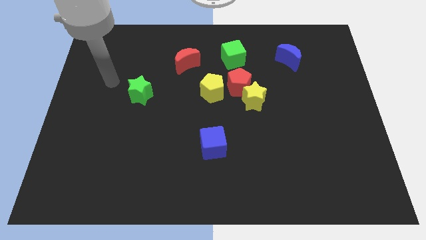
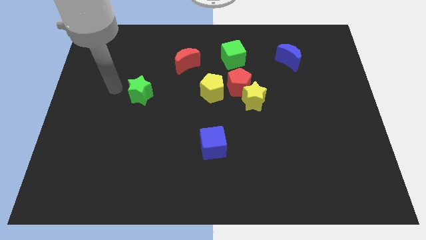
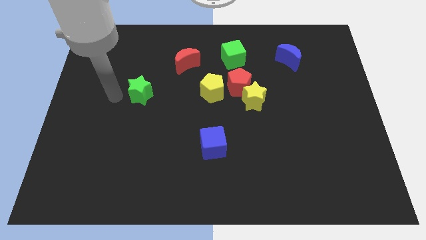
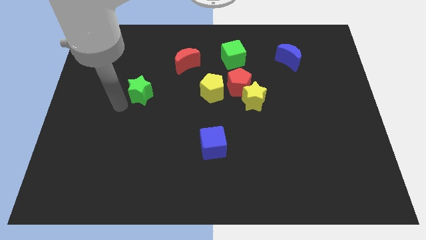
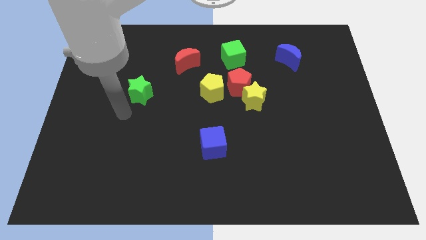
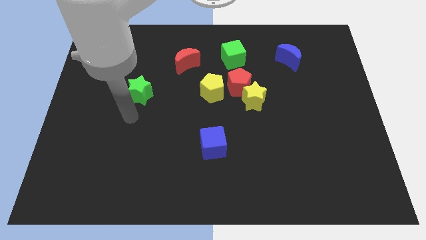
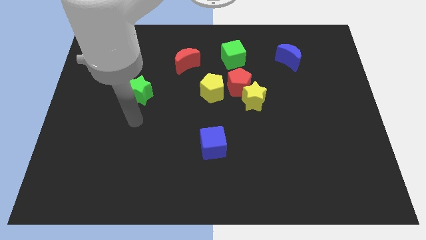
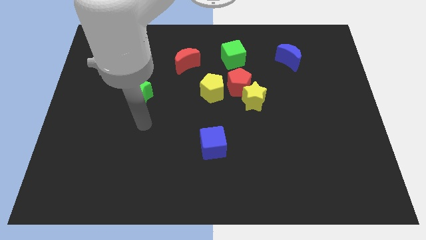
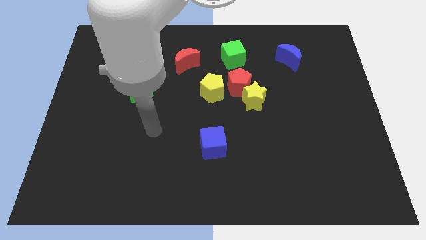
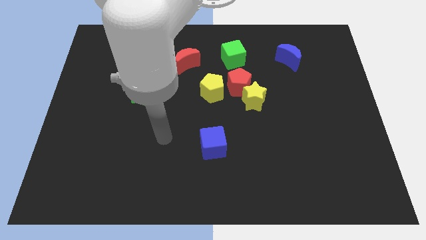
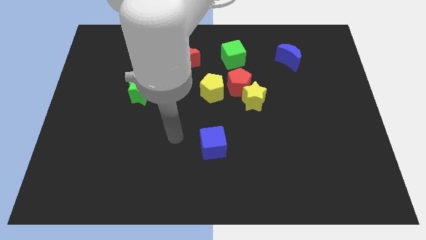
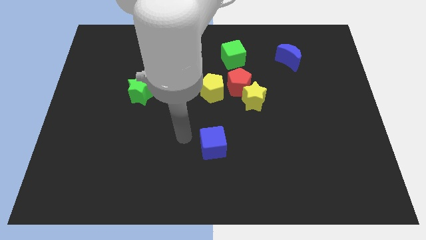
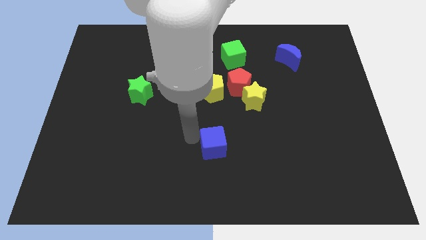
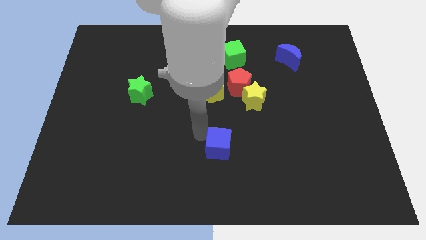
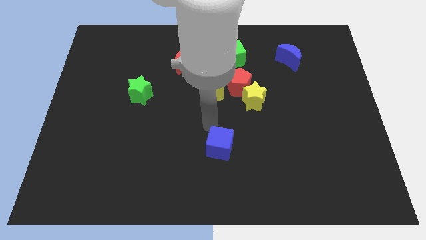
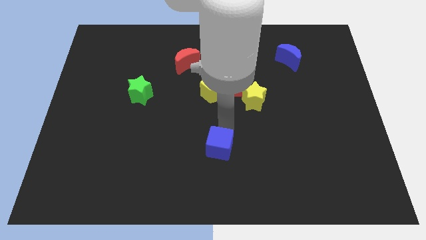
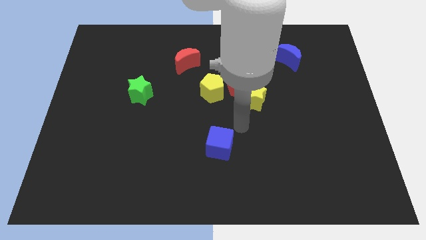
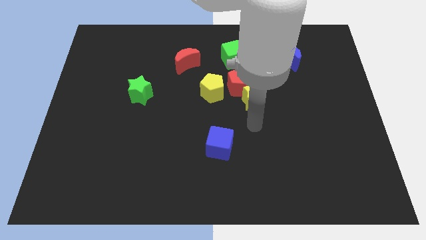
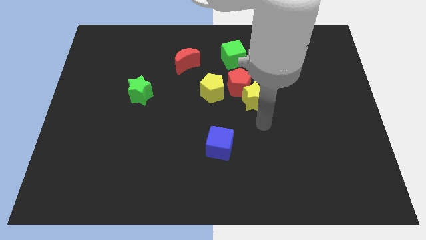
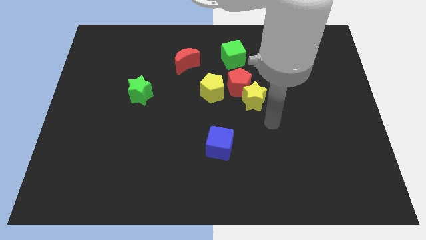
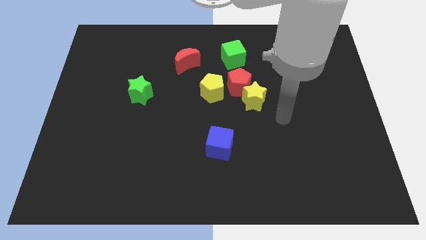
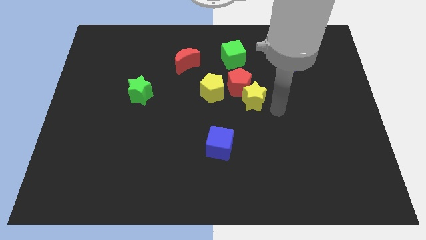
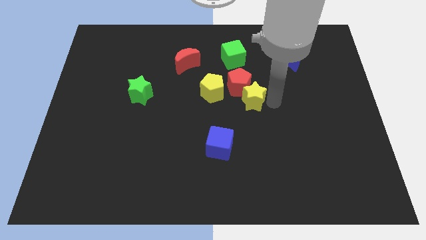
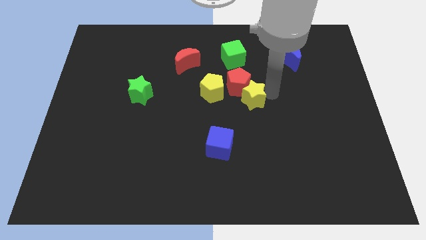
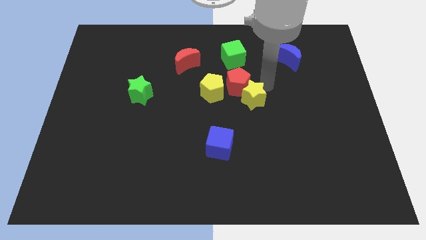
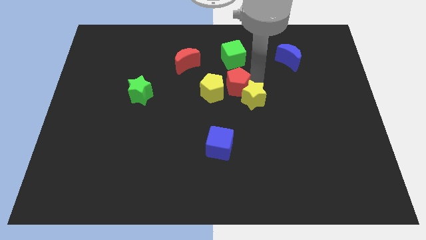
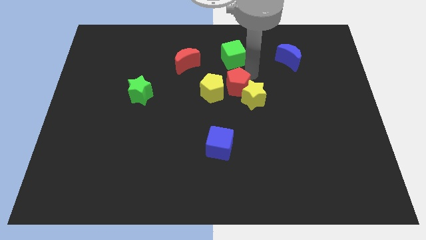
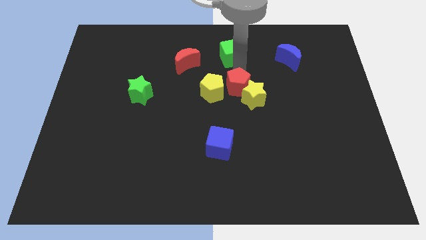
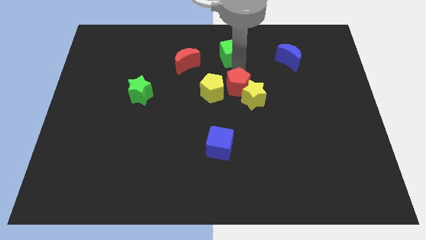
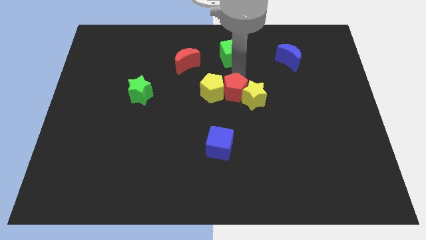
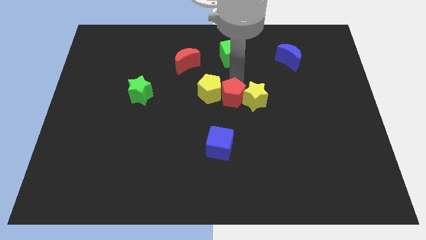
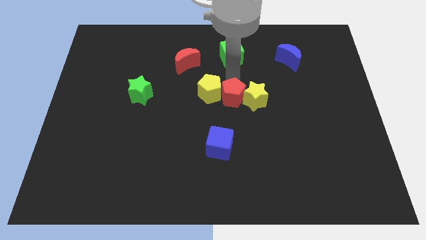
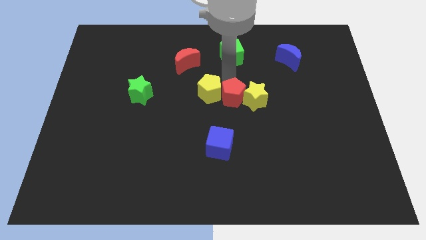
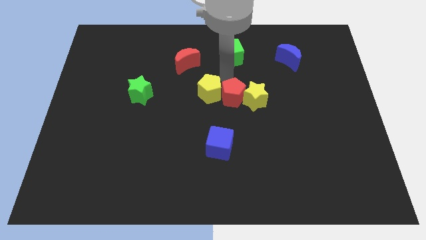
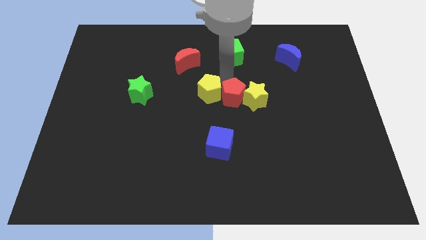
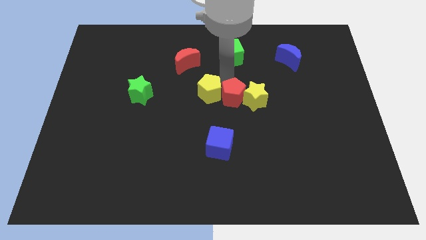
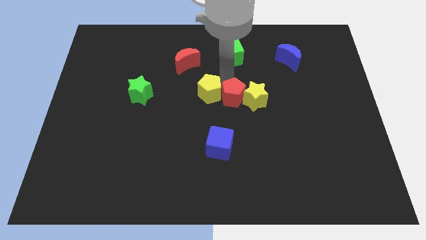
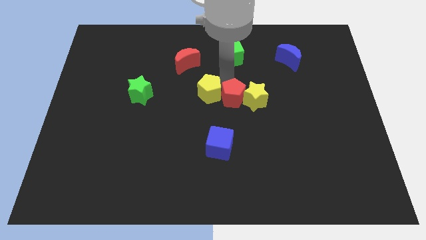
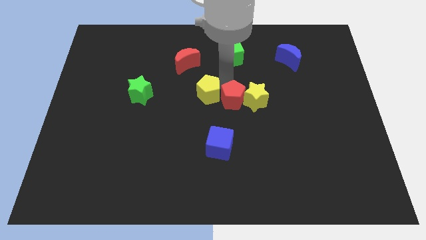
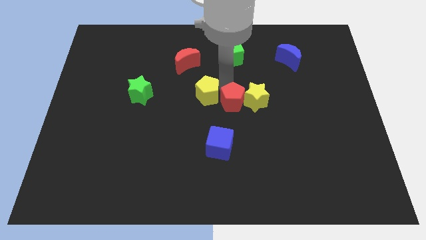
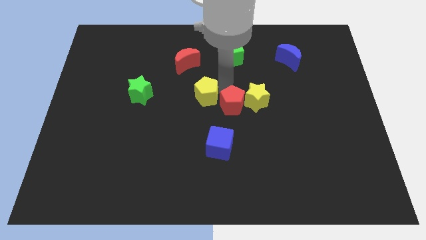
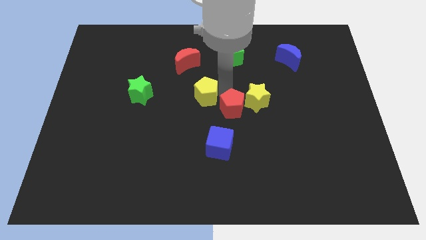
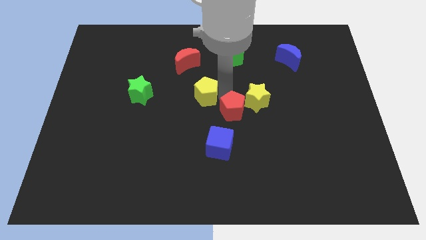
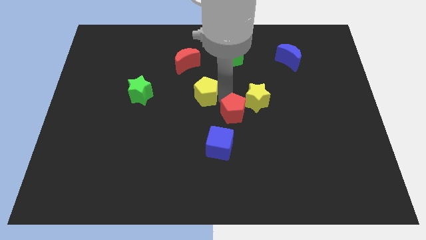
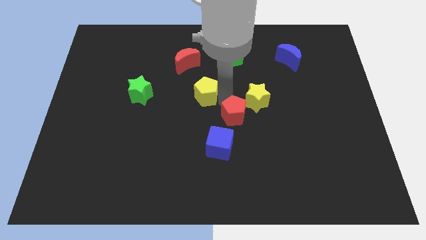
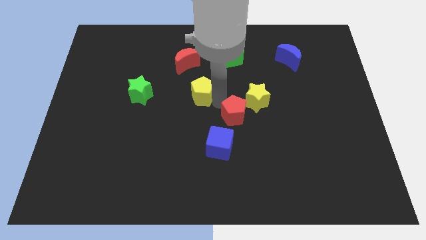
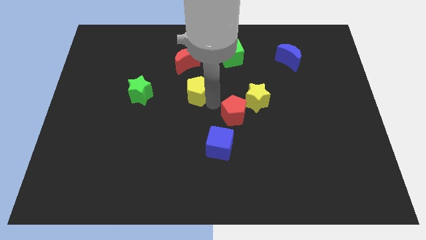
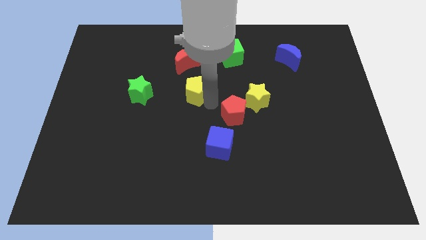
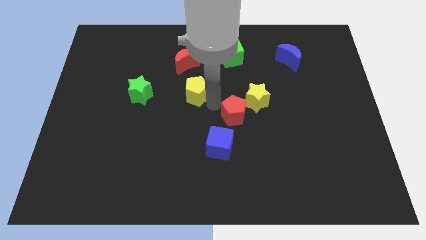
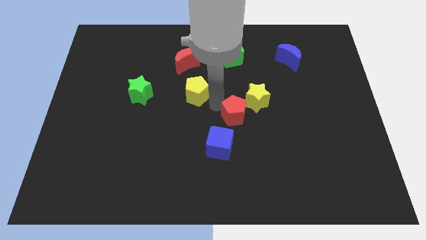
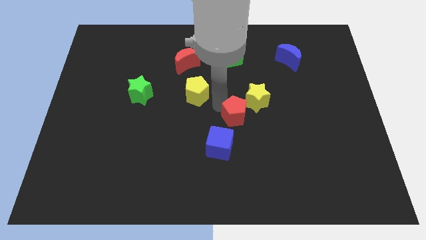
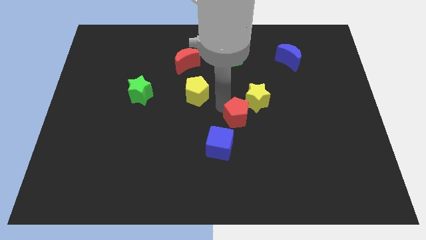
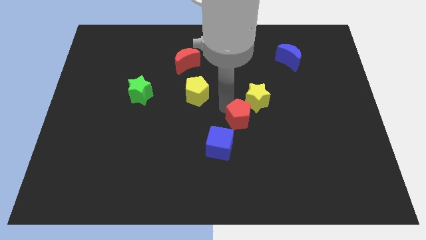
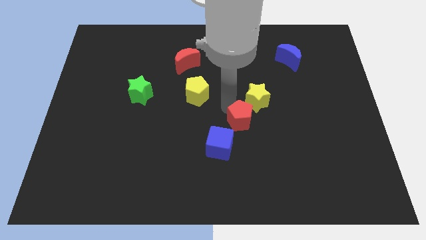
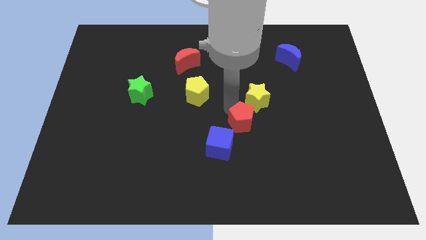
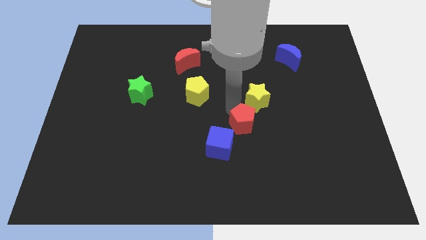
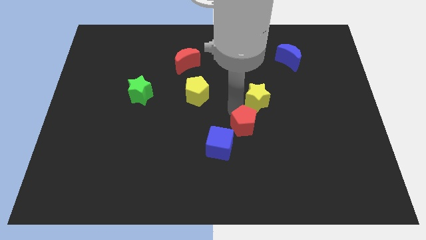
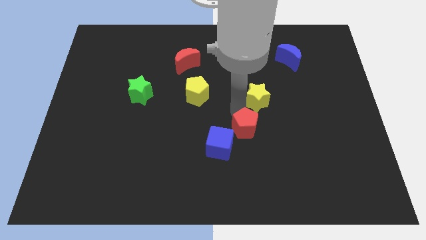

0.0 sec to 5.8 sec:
move the red pentagon to the right side of the blue cube

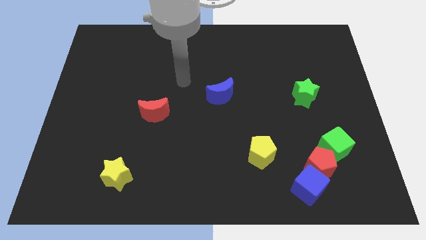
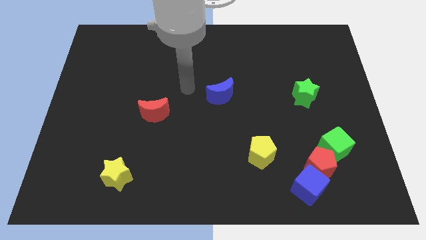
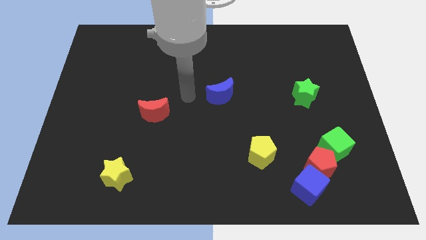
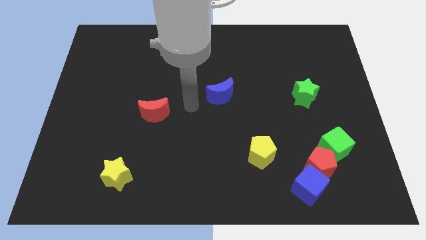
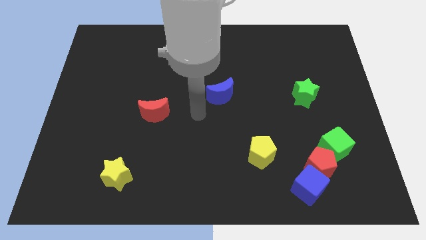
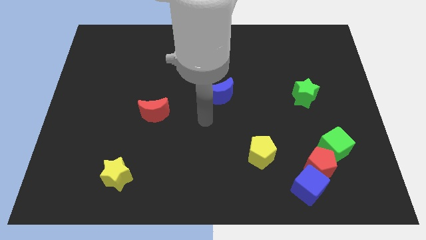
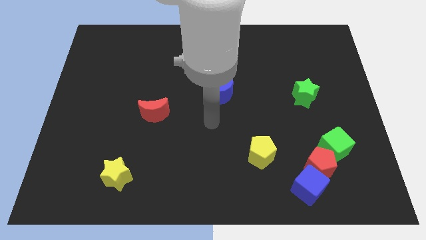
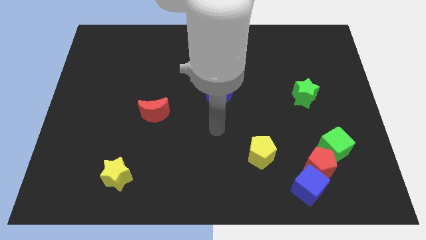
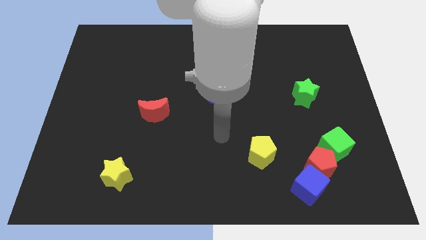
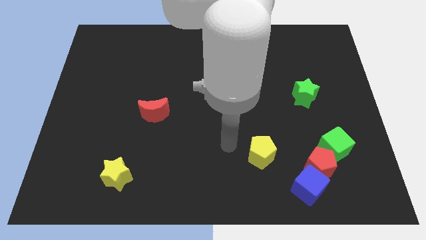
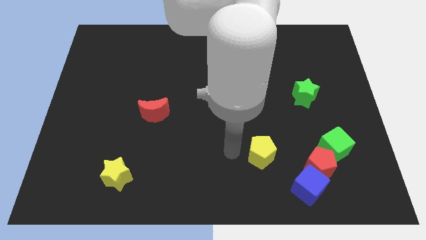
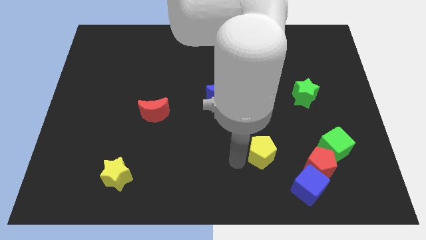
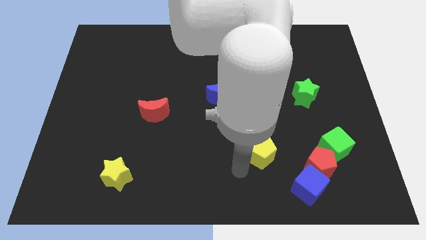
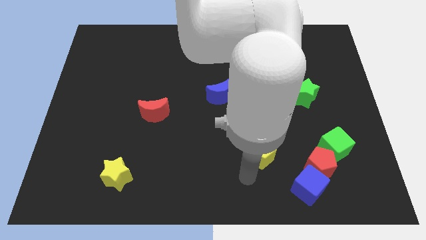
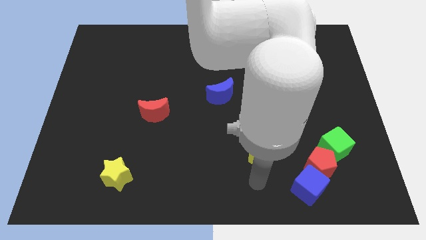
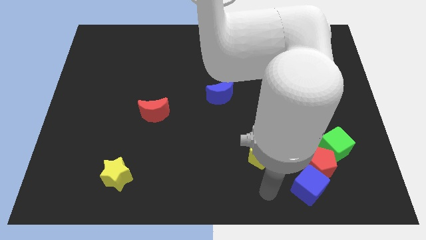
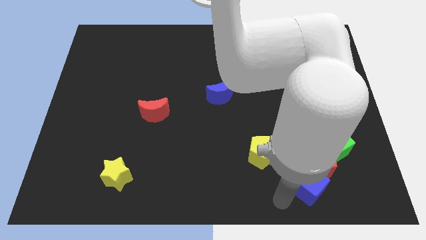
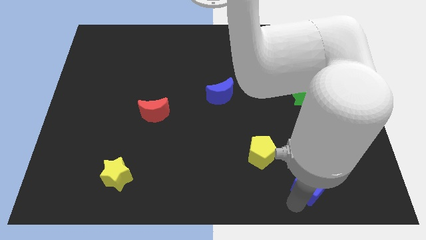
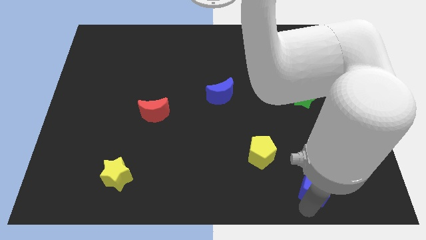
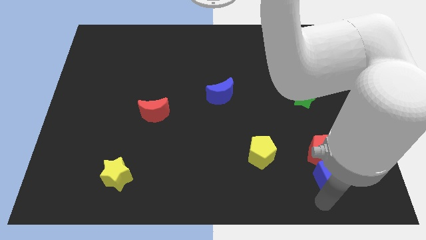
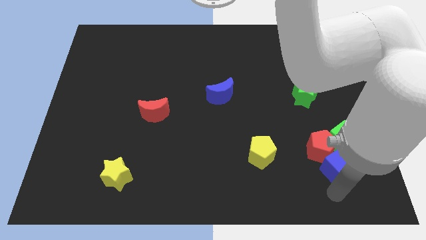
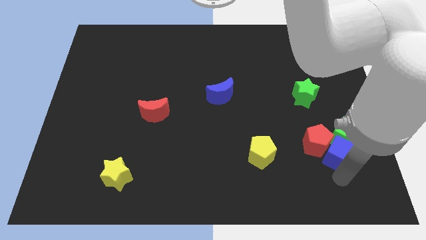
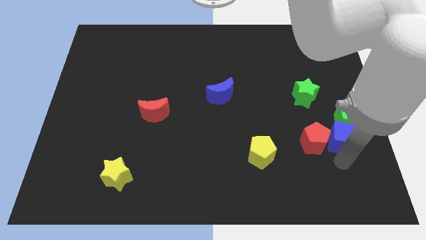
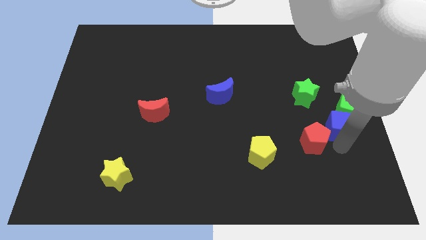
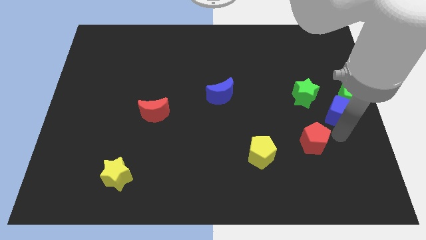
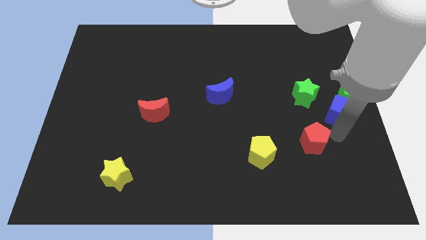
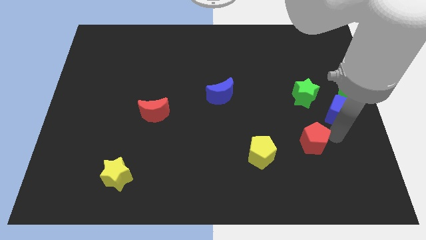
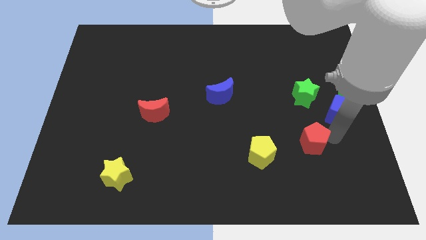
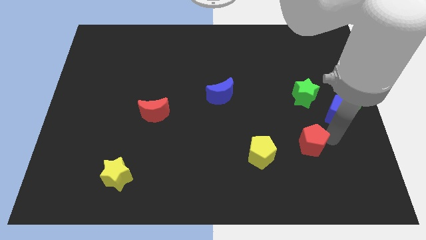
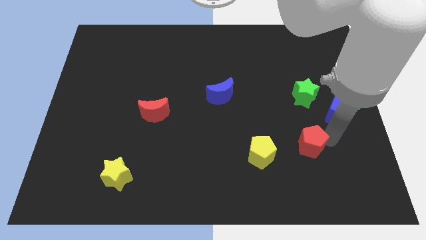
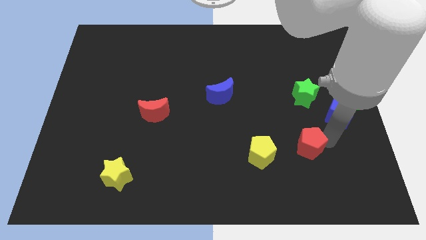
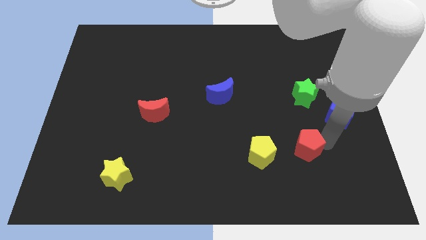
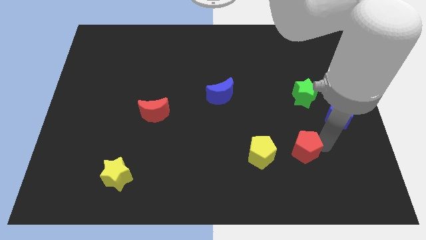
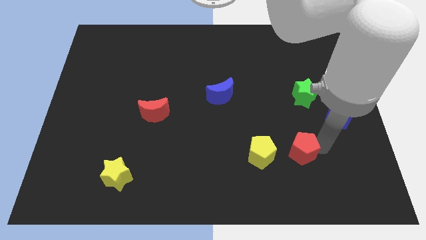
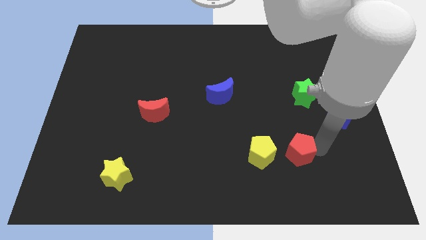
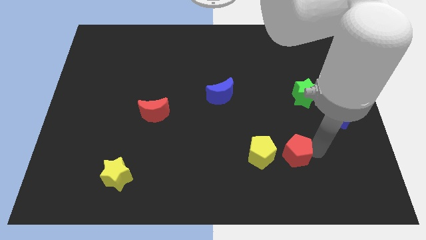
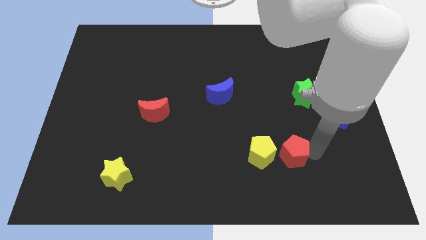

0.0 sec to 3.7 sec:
slide the red pentagon to the top right side of the yellow pentagon
